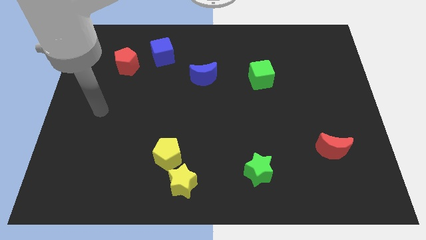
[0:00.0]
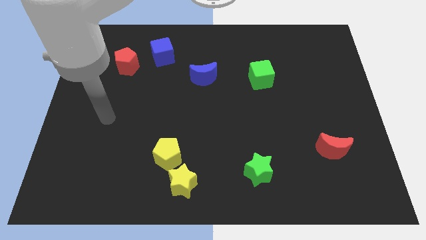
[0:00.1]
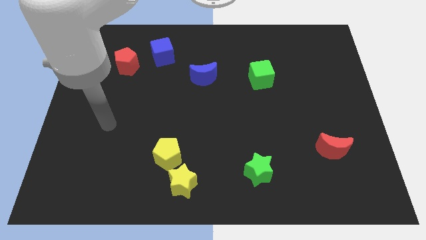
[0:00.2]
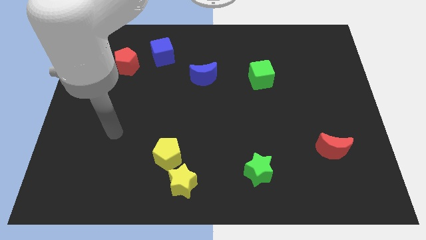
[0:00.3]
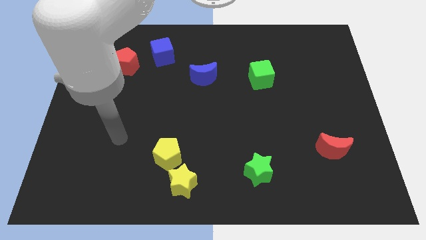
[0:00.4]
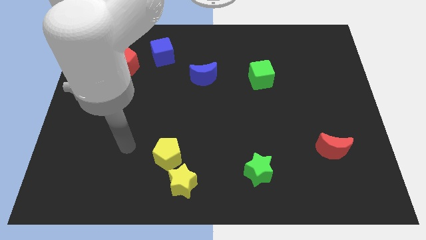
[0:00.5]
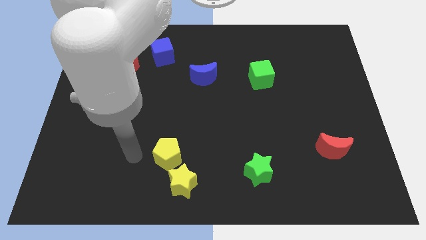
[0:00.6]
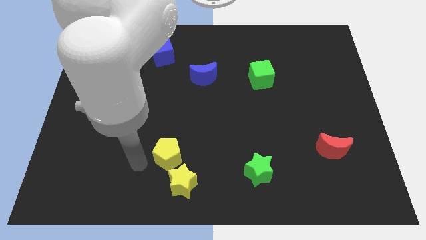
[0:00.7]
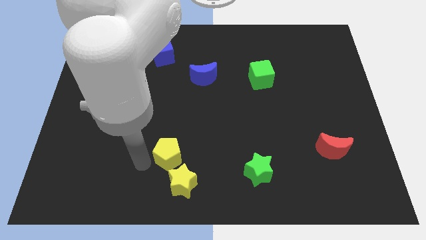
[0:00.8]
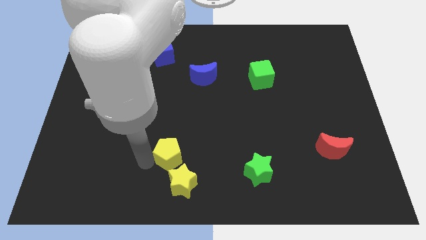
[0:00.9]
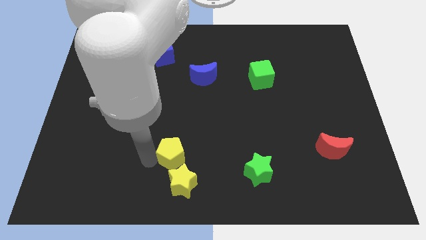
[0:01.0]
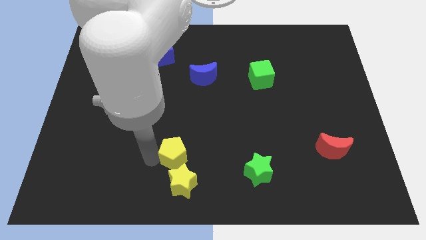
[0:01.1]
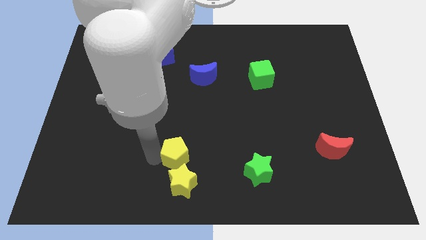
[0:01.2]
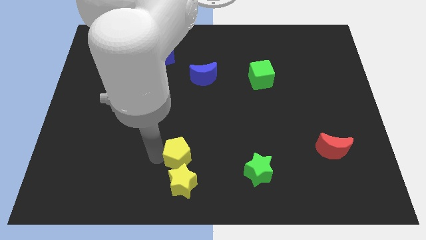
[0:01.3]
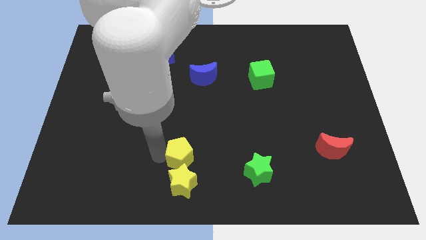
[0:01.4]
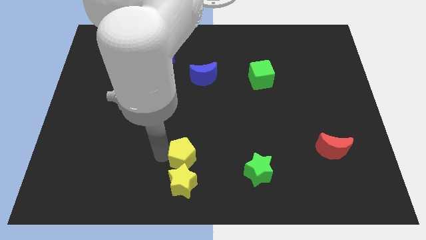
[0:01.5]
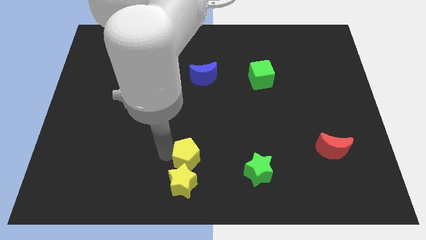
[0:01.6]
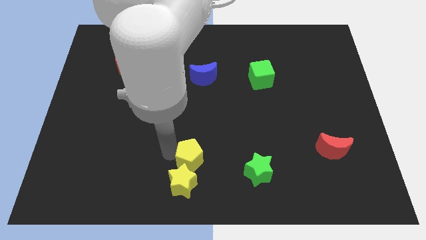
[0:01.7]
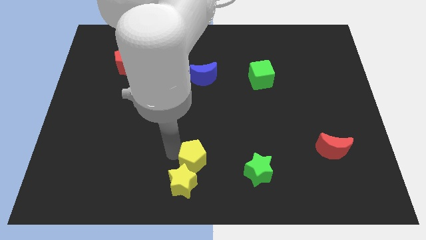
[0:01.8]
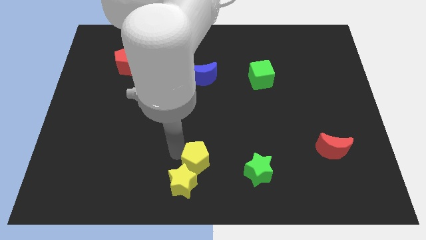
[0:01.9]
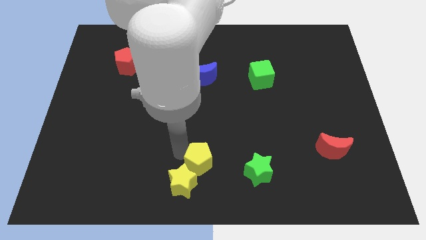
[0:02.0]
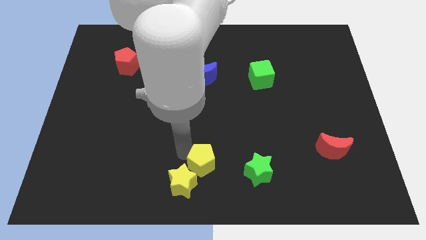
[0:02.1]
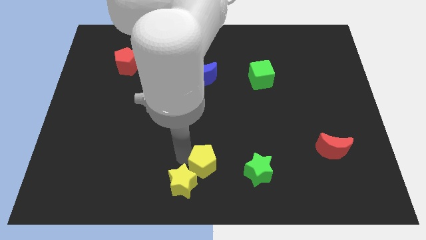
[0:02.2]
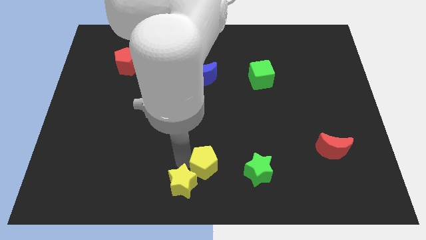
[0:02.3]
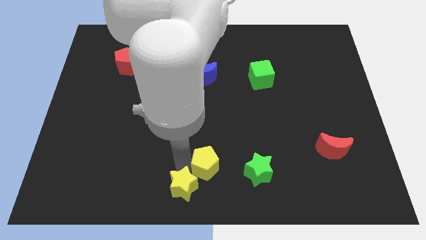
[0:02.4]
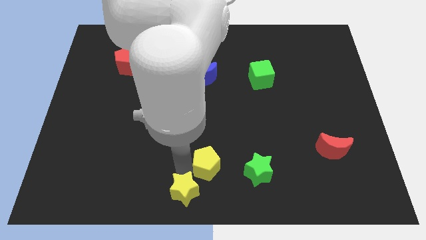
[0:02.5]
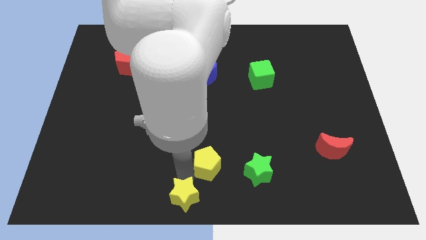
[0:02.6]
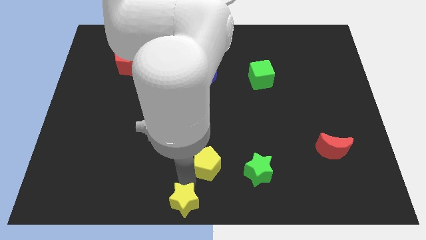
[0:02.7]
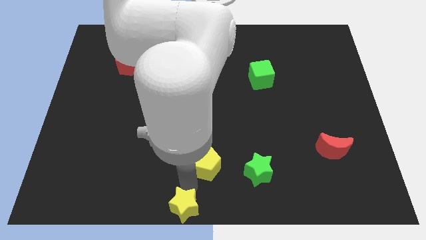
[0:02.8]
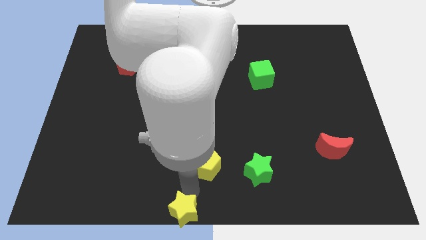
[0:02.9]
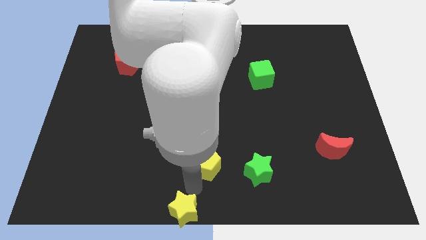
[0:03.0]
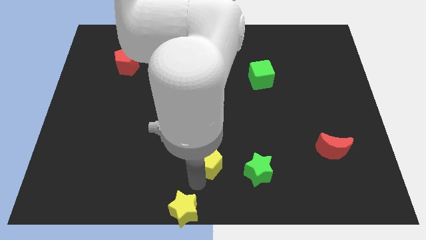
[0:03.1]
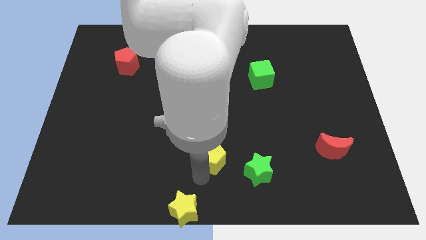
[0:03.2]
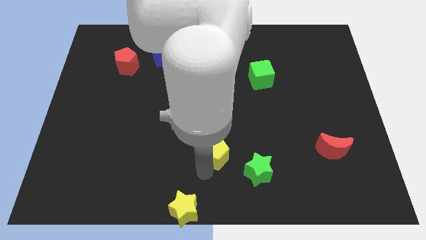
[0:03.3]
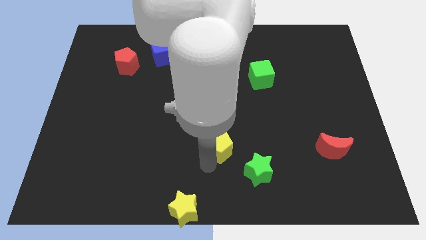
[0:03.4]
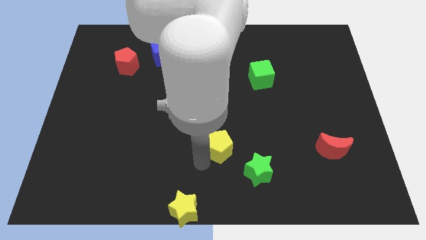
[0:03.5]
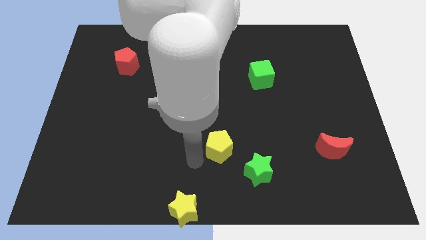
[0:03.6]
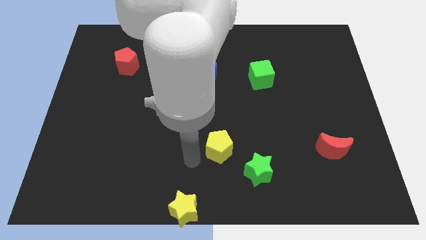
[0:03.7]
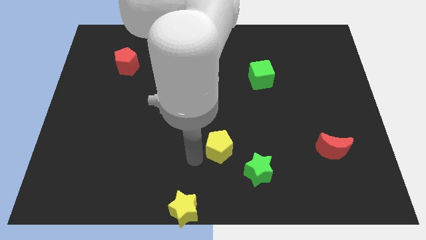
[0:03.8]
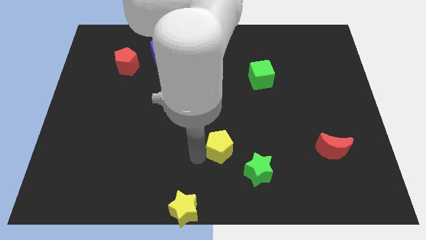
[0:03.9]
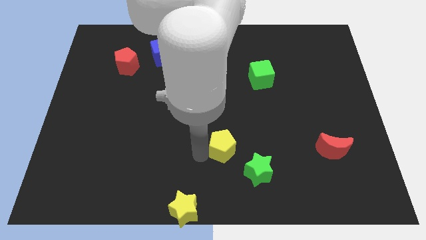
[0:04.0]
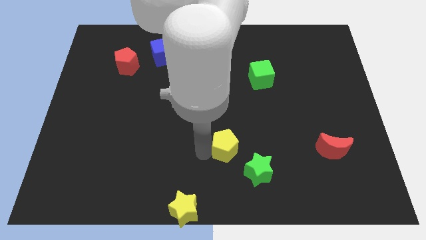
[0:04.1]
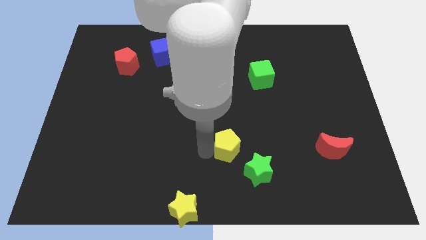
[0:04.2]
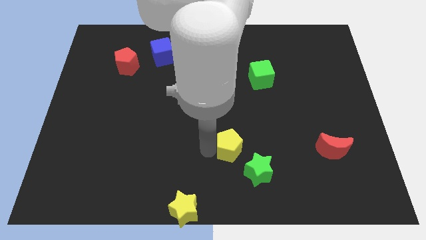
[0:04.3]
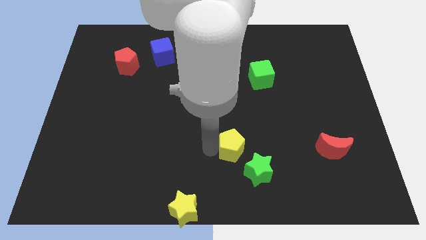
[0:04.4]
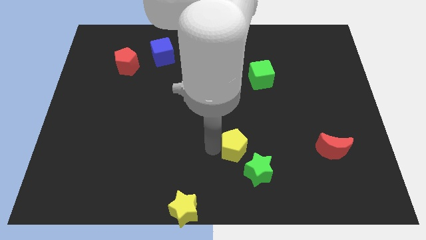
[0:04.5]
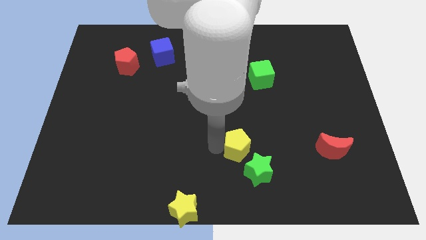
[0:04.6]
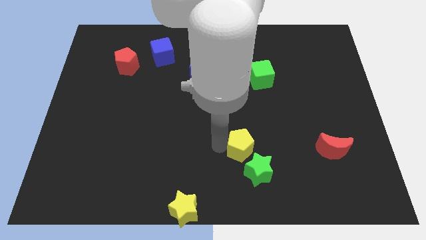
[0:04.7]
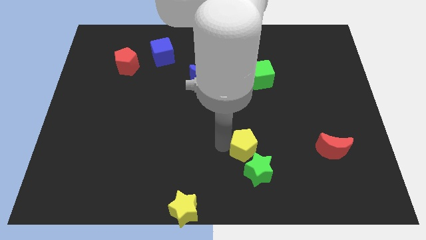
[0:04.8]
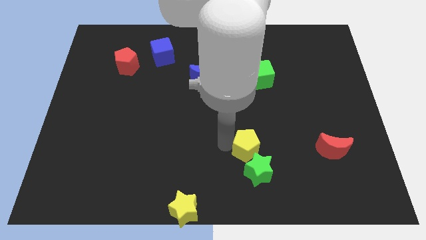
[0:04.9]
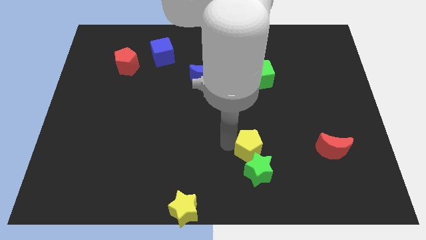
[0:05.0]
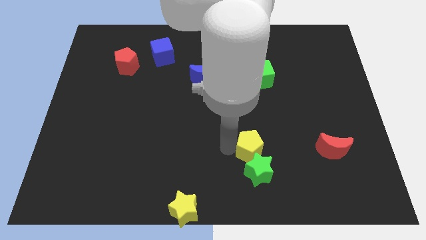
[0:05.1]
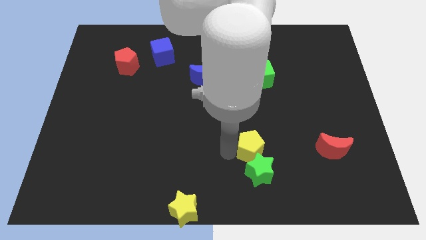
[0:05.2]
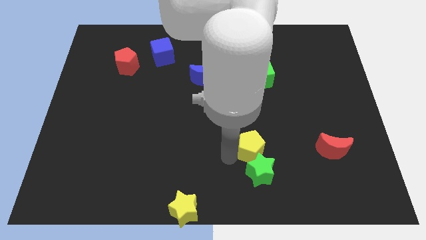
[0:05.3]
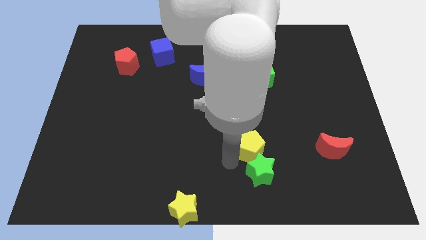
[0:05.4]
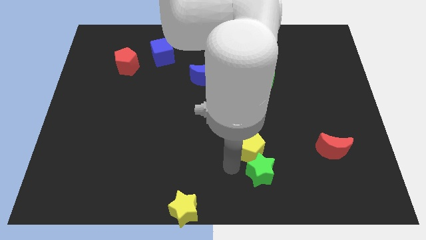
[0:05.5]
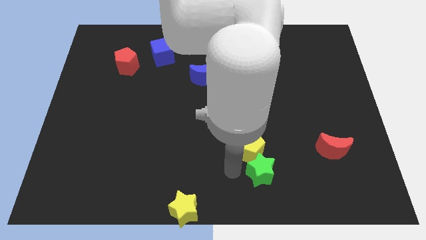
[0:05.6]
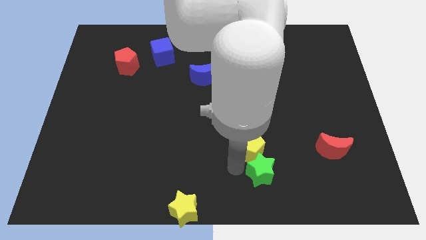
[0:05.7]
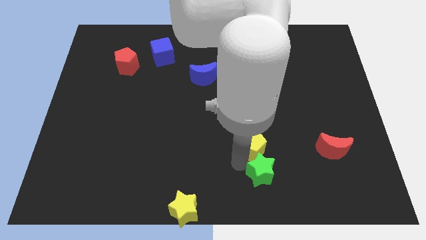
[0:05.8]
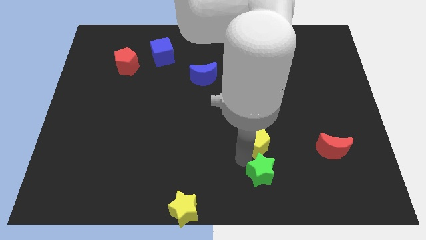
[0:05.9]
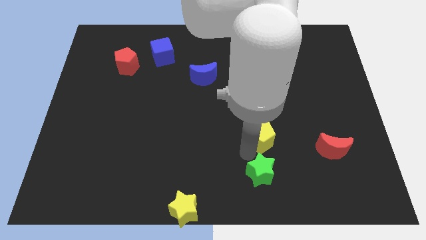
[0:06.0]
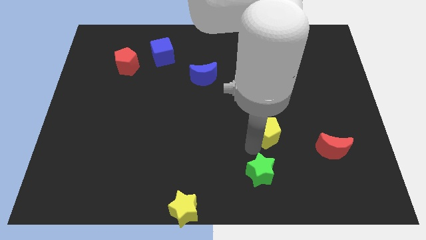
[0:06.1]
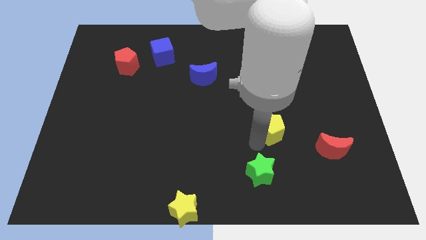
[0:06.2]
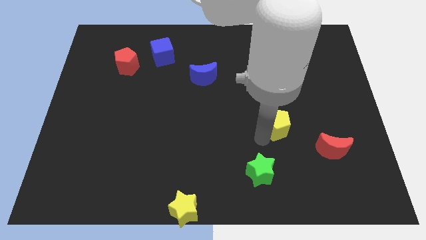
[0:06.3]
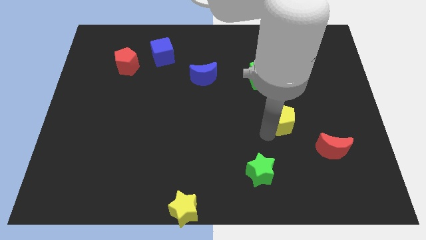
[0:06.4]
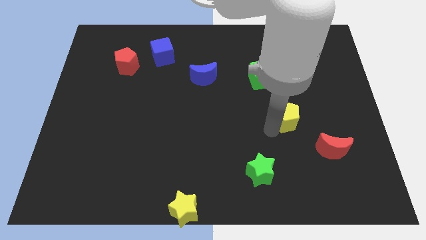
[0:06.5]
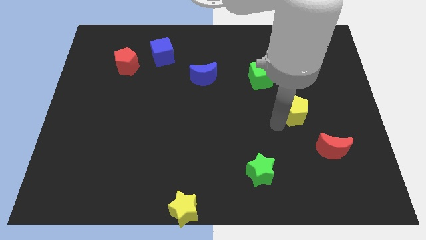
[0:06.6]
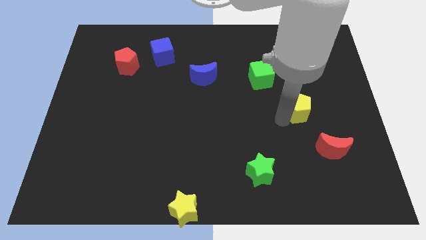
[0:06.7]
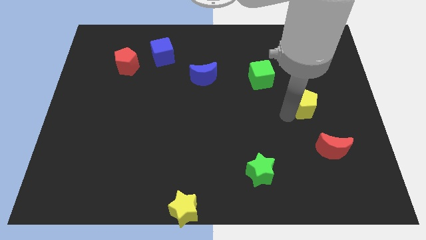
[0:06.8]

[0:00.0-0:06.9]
push the yellow pentagon above the red moon

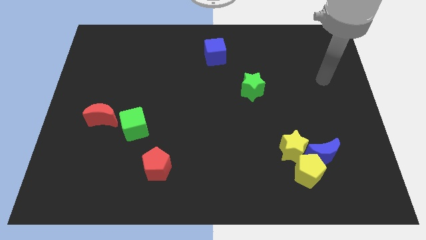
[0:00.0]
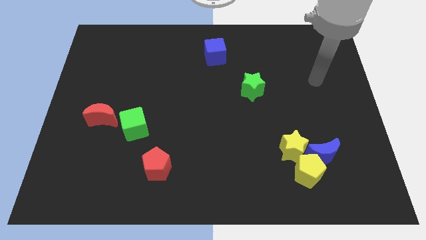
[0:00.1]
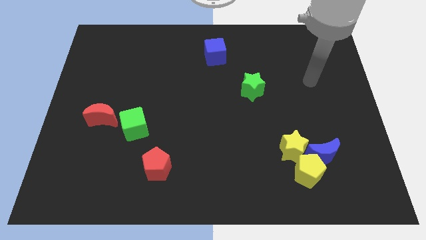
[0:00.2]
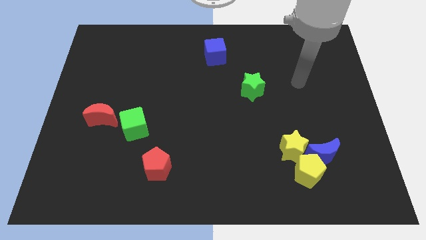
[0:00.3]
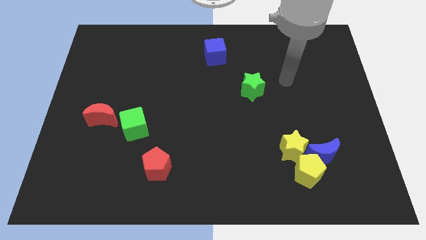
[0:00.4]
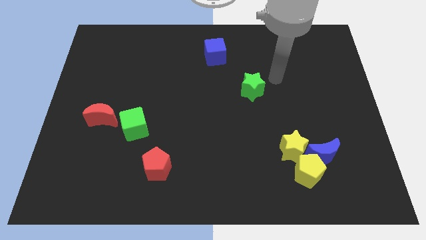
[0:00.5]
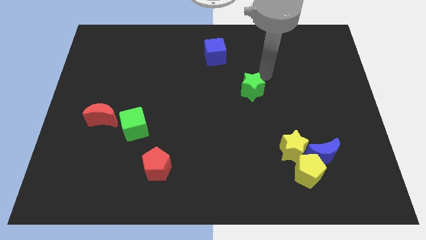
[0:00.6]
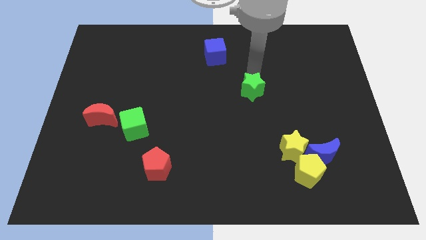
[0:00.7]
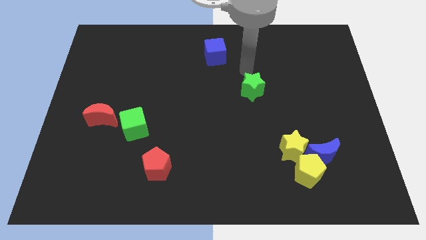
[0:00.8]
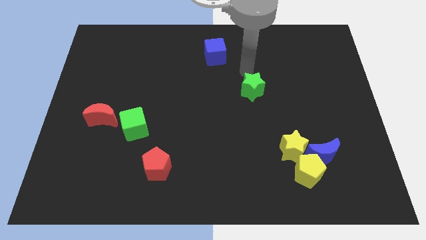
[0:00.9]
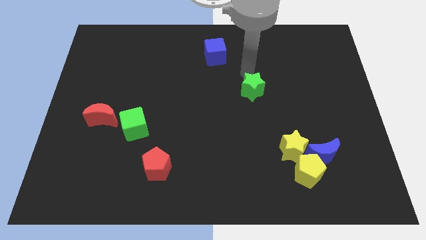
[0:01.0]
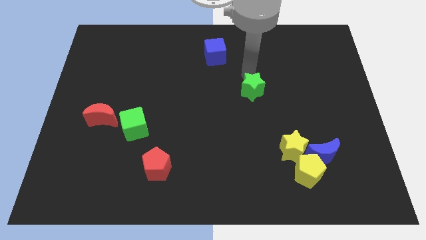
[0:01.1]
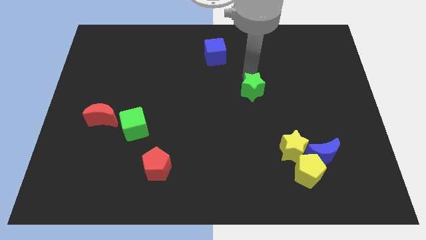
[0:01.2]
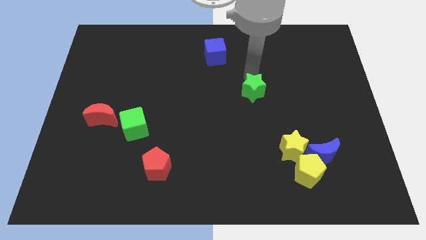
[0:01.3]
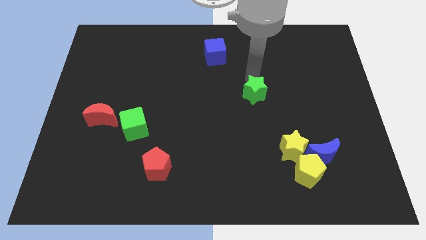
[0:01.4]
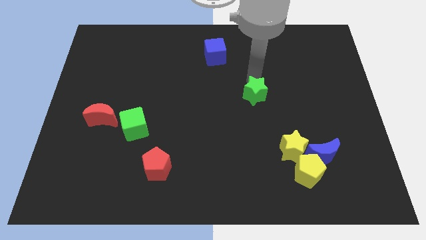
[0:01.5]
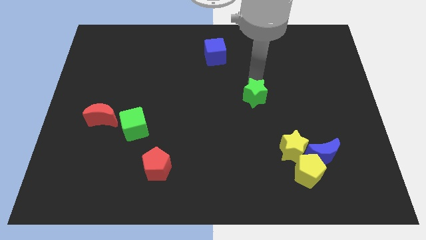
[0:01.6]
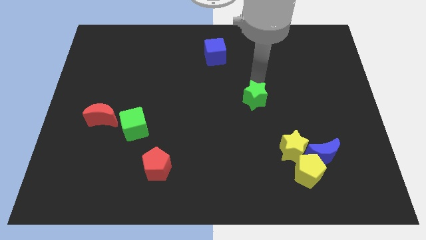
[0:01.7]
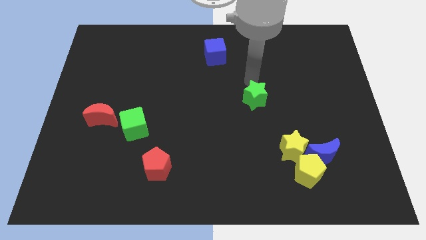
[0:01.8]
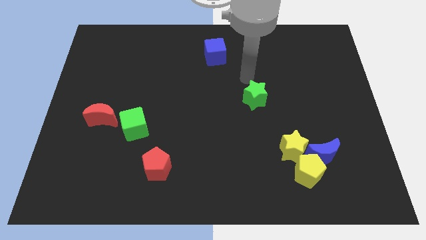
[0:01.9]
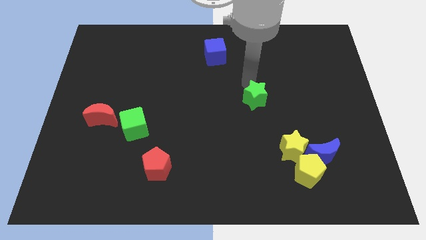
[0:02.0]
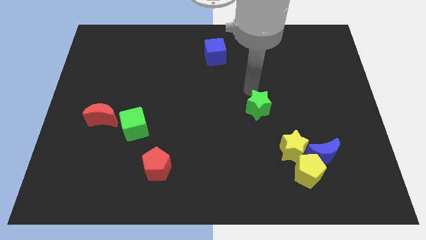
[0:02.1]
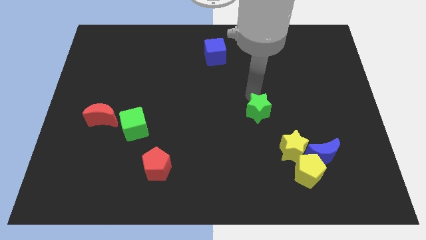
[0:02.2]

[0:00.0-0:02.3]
move the green star diagonally up and to the left of the yellow star
